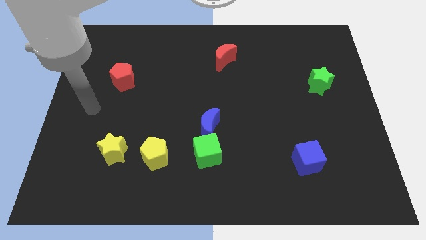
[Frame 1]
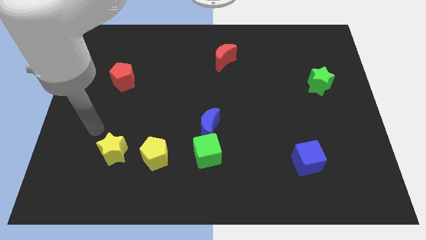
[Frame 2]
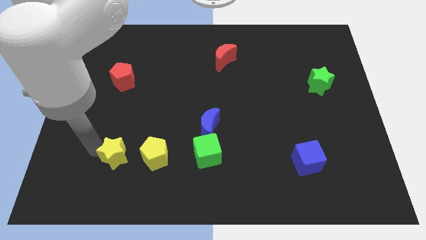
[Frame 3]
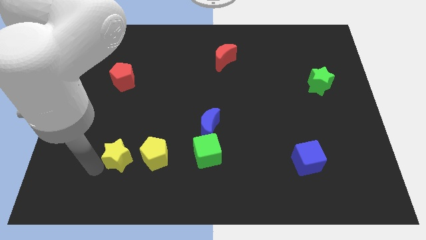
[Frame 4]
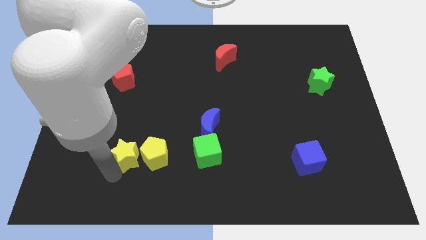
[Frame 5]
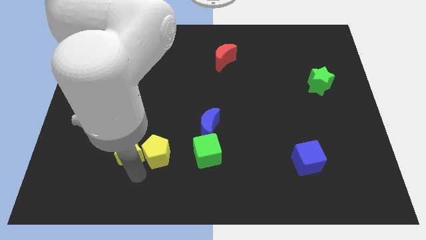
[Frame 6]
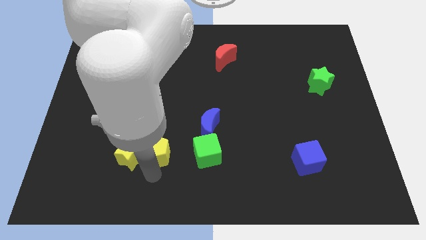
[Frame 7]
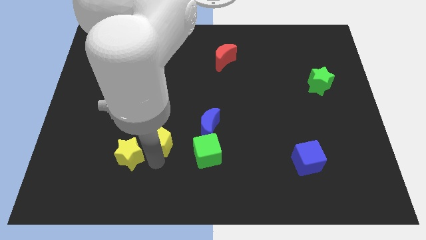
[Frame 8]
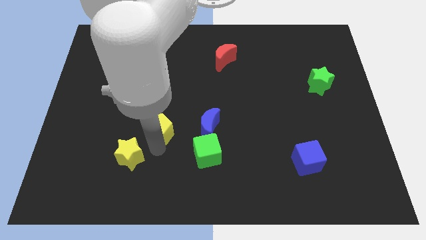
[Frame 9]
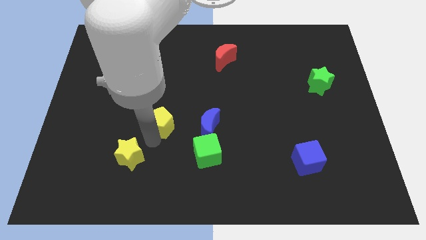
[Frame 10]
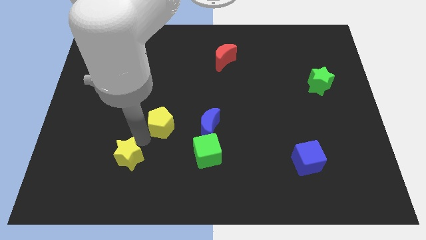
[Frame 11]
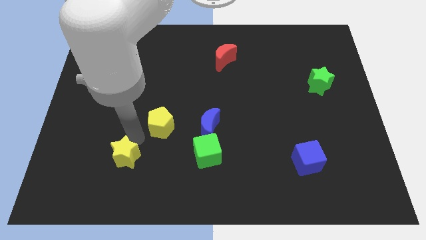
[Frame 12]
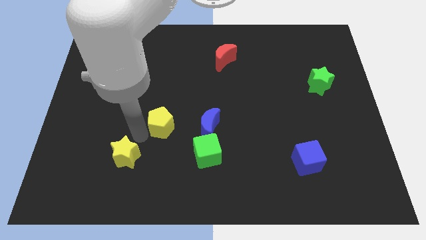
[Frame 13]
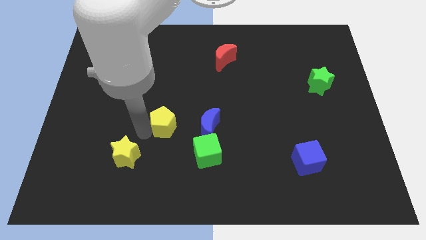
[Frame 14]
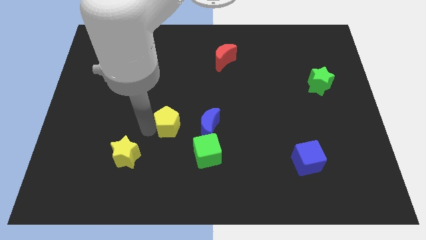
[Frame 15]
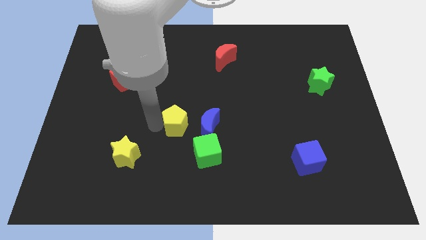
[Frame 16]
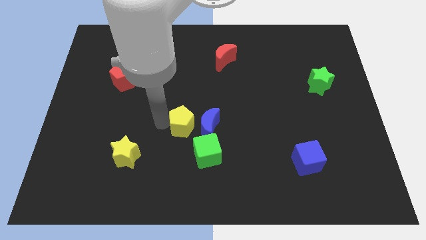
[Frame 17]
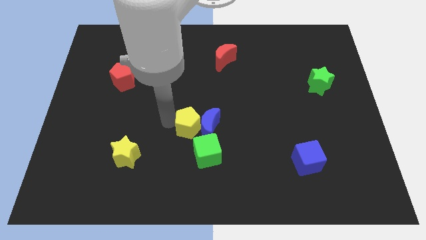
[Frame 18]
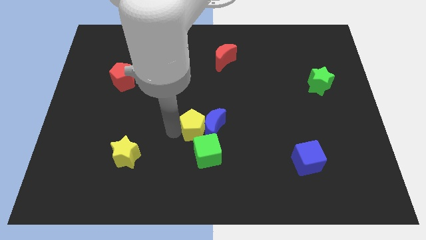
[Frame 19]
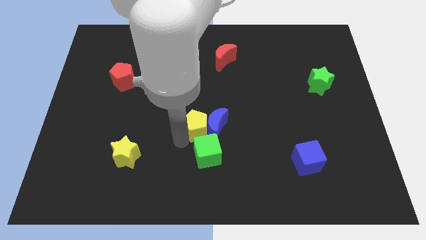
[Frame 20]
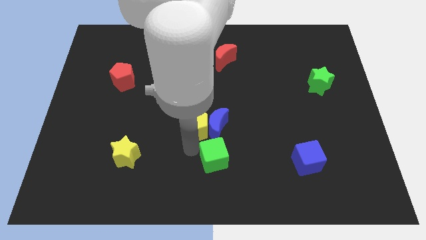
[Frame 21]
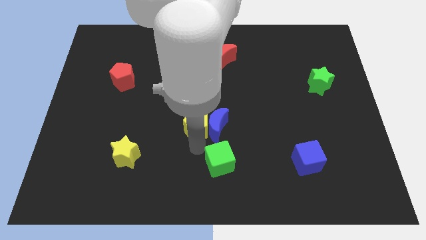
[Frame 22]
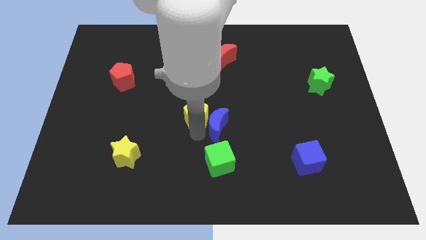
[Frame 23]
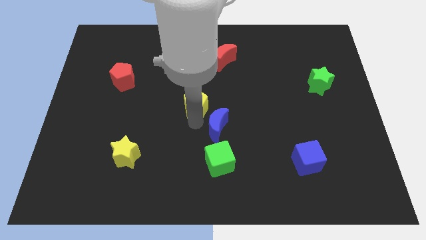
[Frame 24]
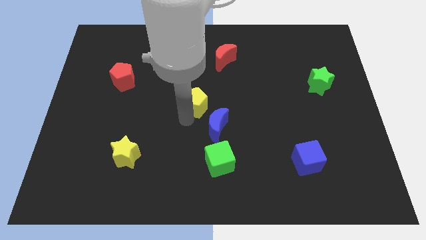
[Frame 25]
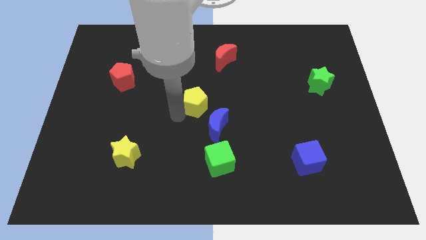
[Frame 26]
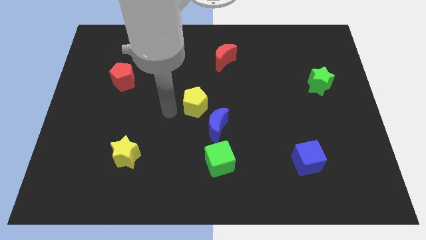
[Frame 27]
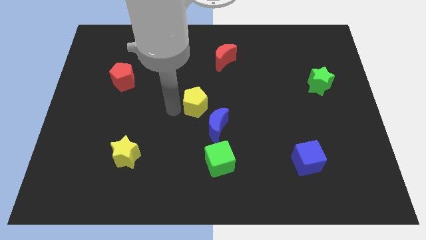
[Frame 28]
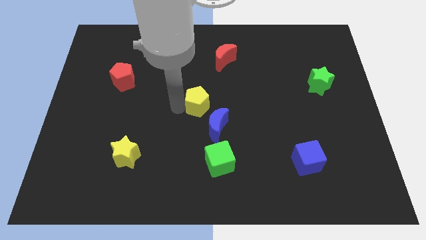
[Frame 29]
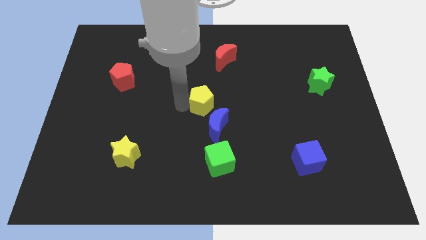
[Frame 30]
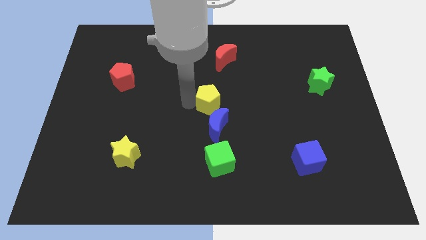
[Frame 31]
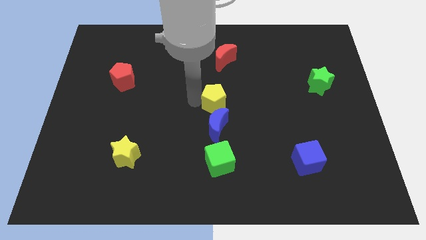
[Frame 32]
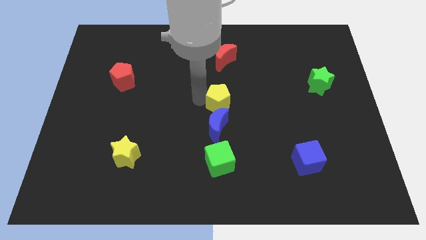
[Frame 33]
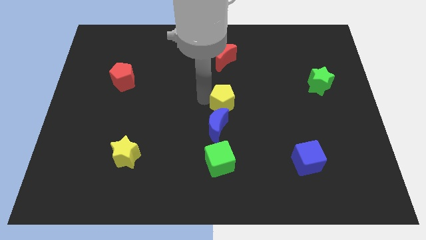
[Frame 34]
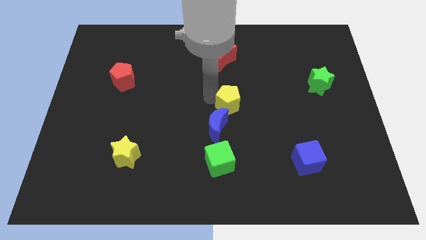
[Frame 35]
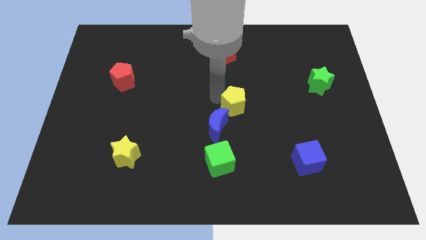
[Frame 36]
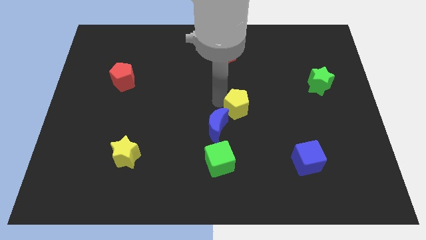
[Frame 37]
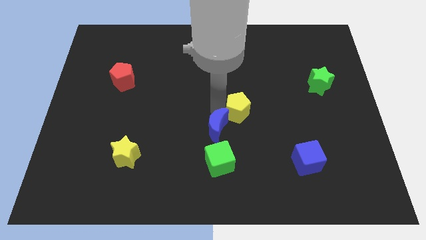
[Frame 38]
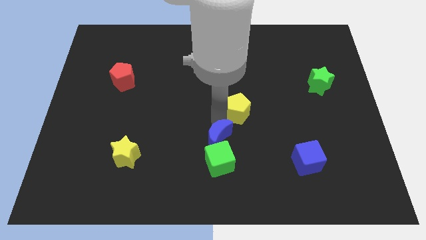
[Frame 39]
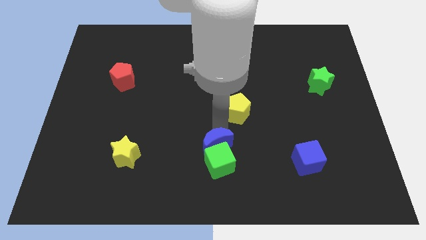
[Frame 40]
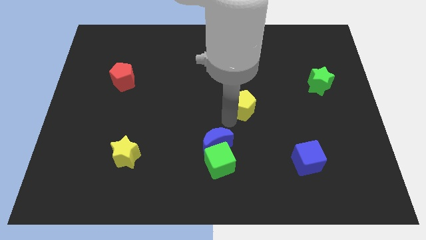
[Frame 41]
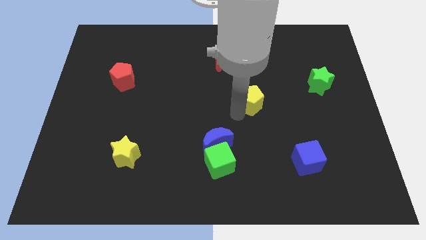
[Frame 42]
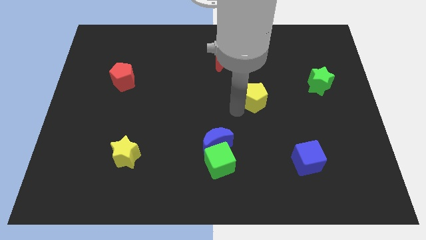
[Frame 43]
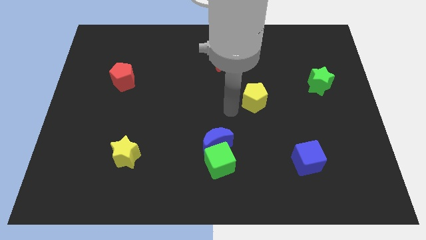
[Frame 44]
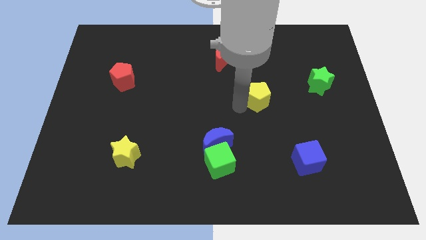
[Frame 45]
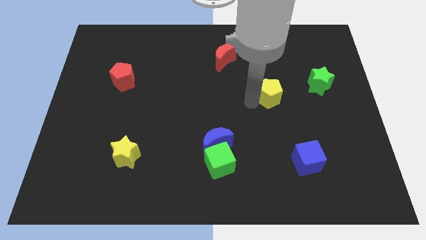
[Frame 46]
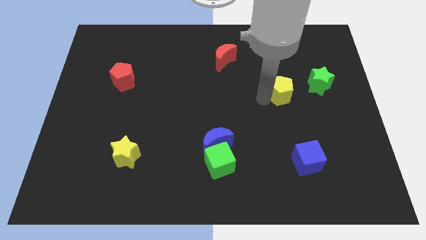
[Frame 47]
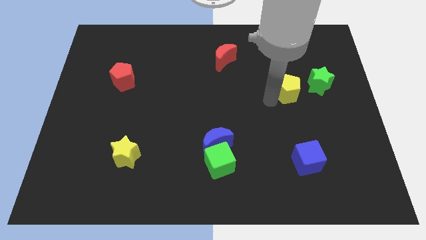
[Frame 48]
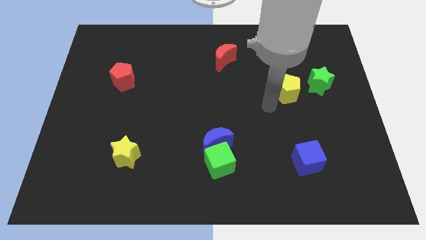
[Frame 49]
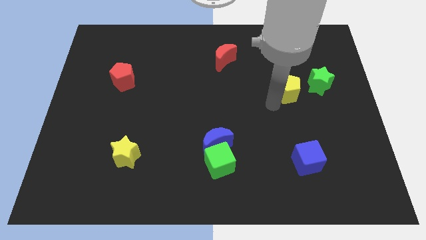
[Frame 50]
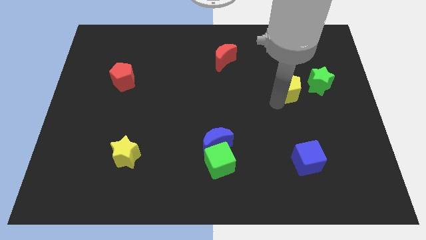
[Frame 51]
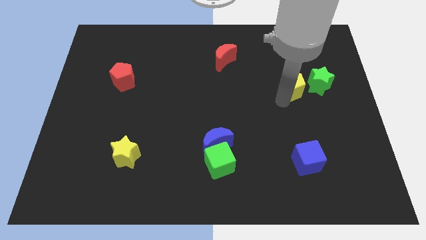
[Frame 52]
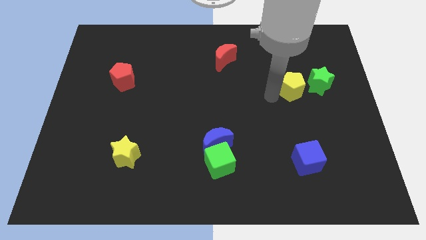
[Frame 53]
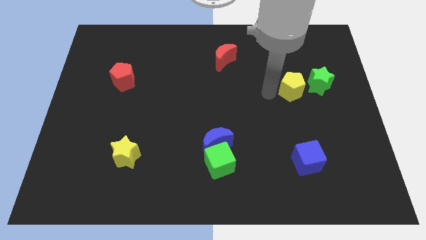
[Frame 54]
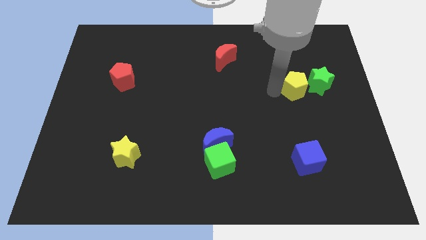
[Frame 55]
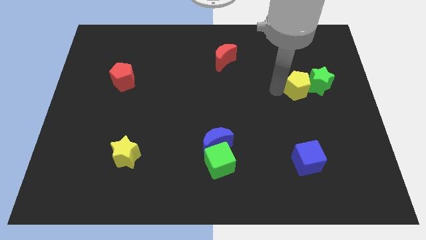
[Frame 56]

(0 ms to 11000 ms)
slide the yellow pentagon to the green star

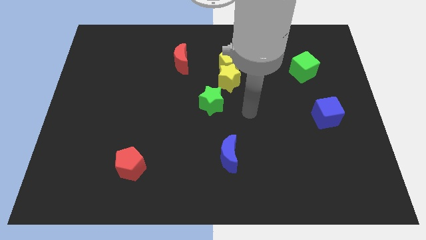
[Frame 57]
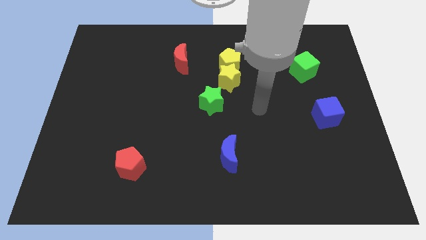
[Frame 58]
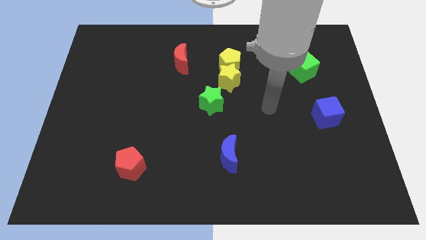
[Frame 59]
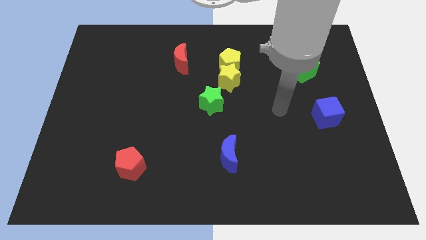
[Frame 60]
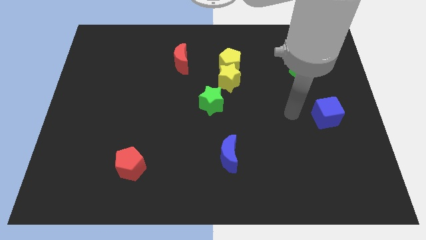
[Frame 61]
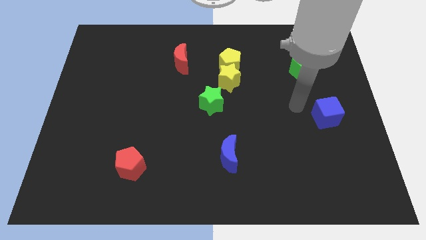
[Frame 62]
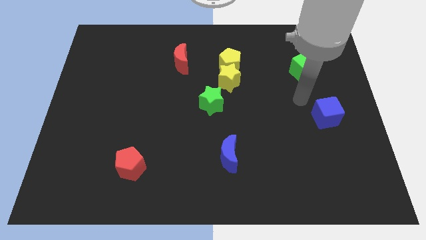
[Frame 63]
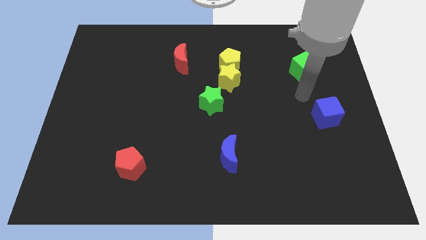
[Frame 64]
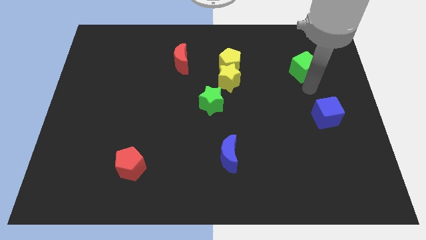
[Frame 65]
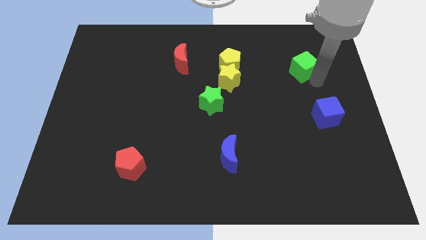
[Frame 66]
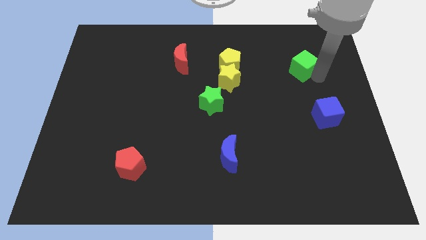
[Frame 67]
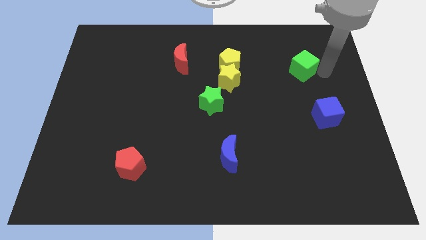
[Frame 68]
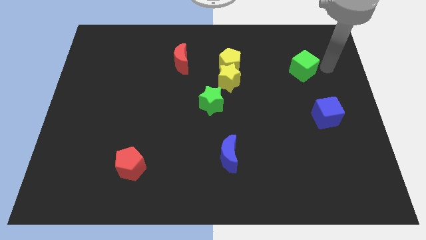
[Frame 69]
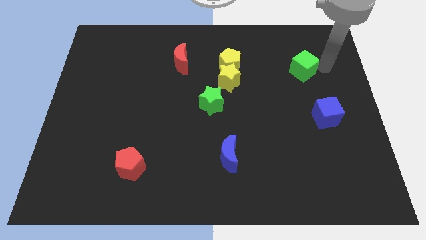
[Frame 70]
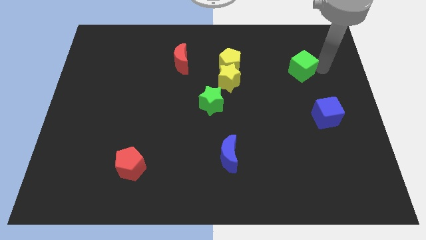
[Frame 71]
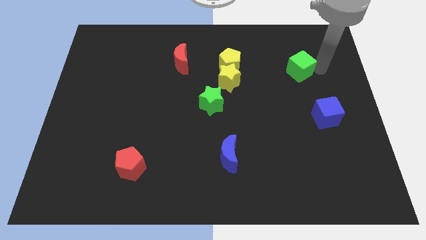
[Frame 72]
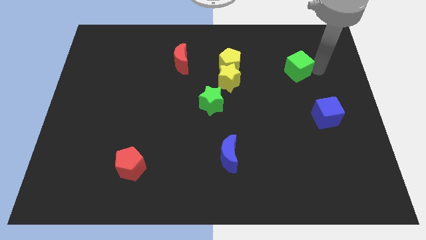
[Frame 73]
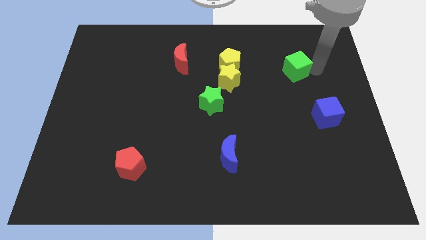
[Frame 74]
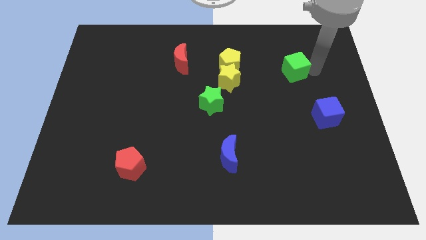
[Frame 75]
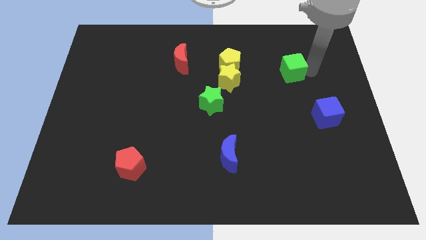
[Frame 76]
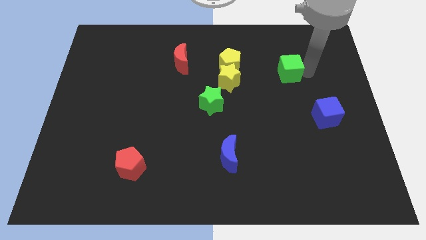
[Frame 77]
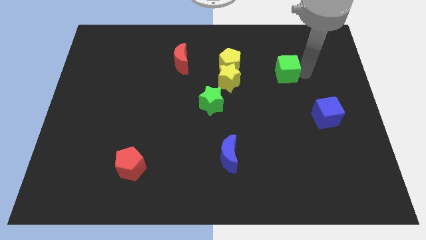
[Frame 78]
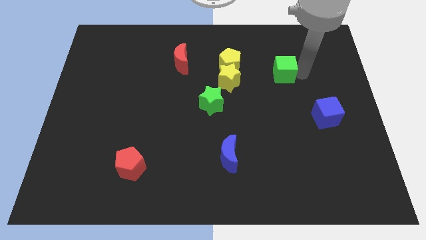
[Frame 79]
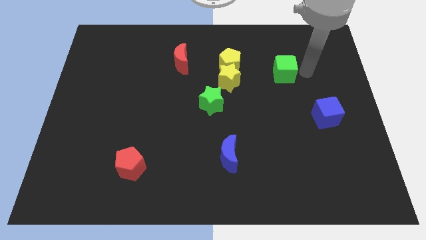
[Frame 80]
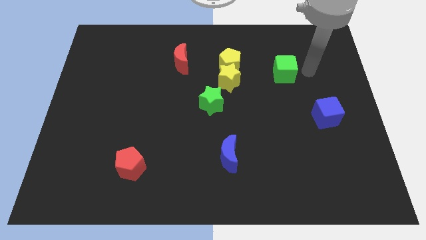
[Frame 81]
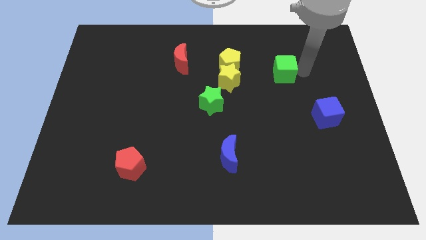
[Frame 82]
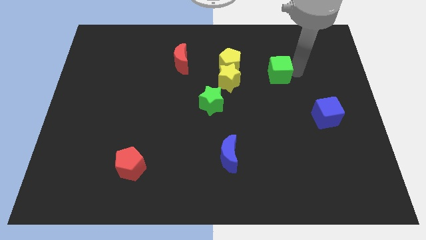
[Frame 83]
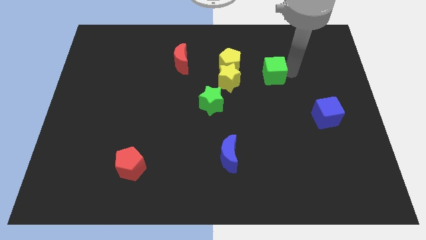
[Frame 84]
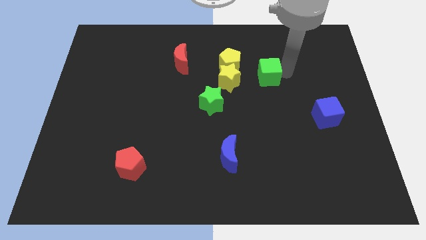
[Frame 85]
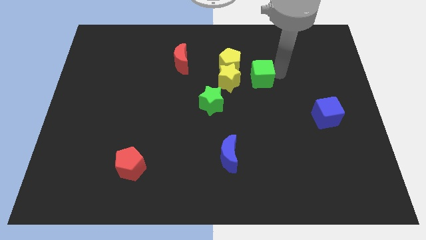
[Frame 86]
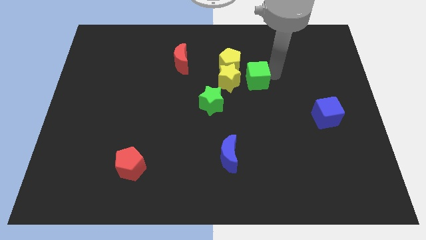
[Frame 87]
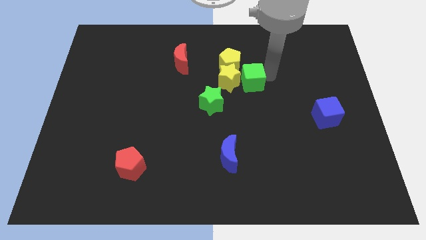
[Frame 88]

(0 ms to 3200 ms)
slide the green cube close to the yellow star
